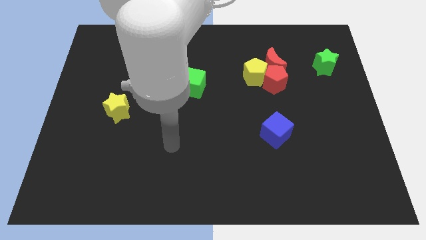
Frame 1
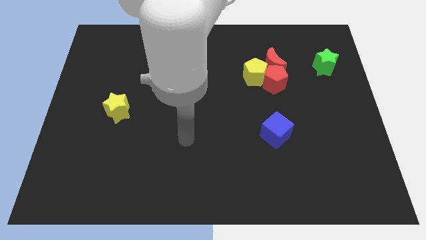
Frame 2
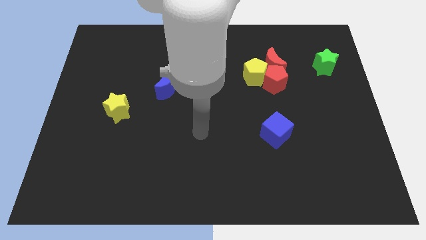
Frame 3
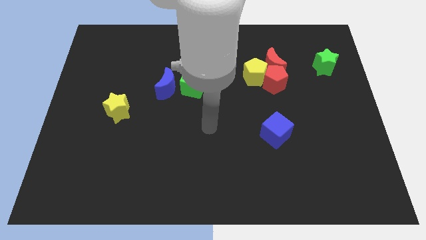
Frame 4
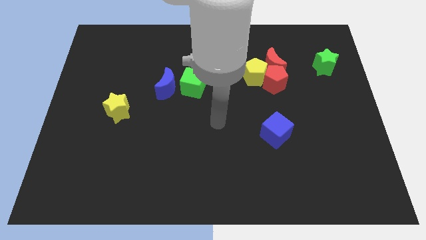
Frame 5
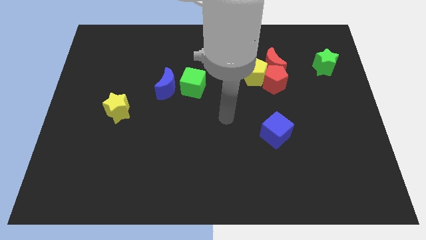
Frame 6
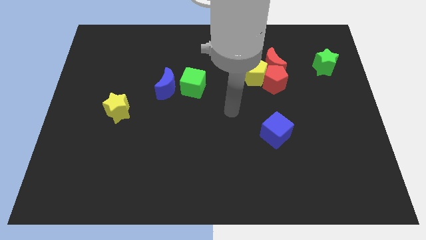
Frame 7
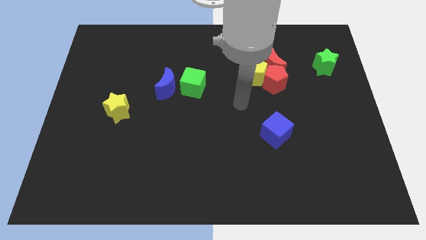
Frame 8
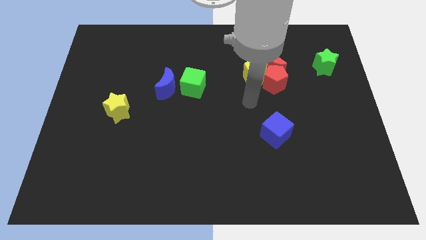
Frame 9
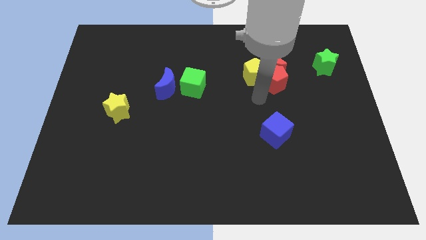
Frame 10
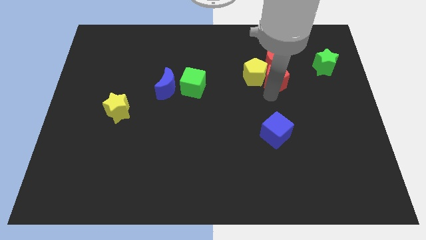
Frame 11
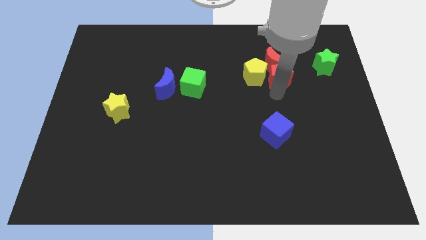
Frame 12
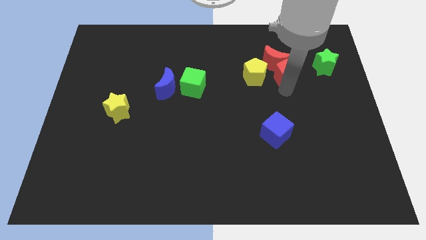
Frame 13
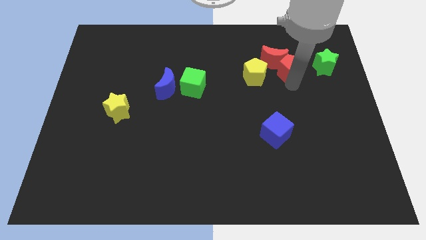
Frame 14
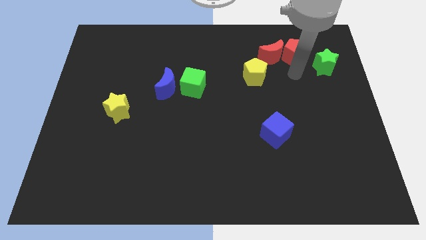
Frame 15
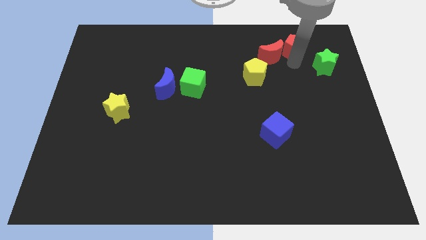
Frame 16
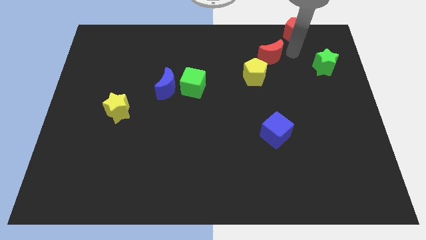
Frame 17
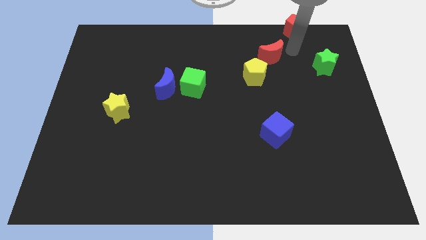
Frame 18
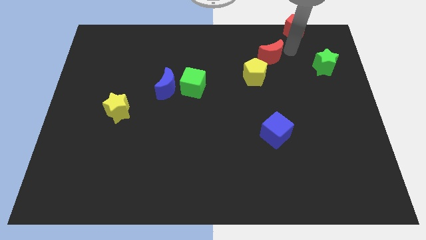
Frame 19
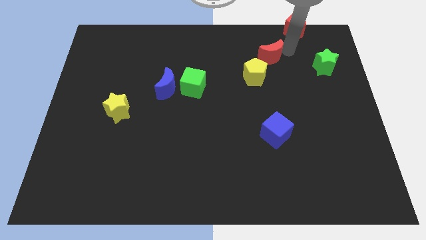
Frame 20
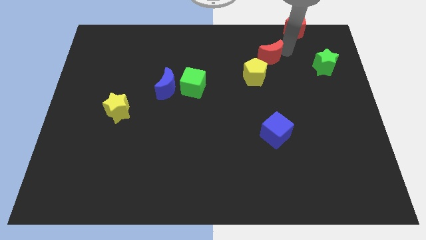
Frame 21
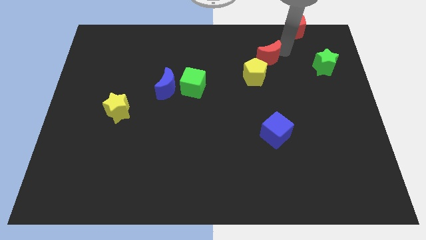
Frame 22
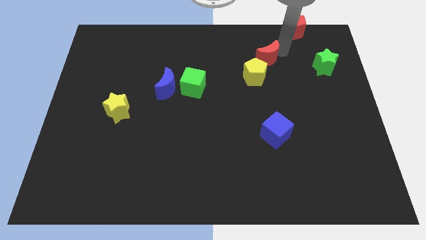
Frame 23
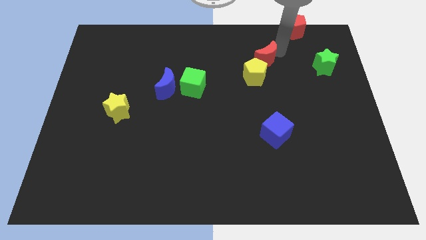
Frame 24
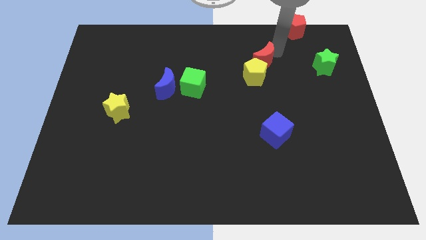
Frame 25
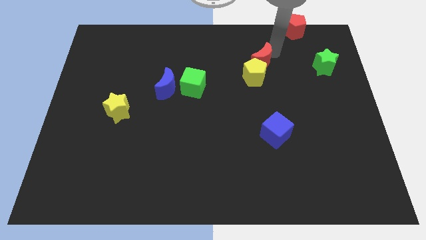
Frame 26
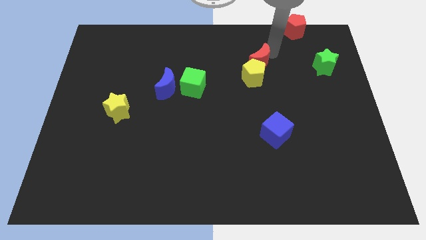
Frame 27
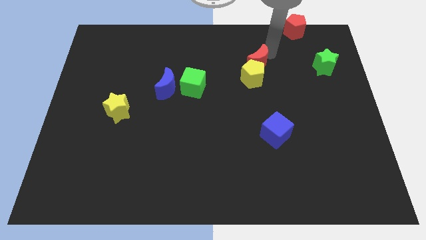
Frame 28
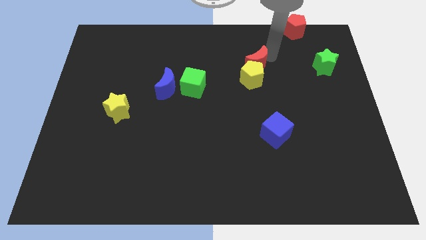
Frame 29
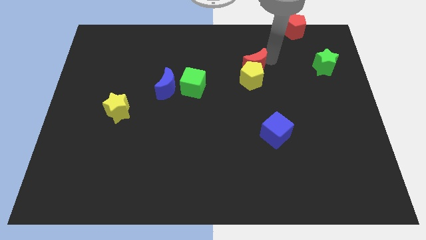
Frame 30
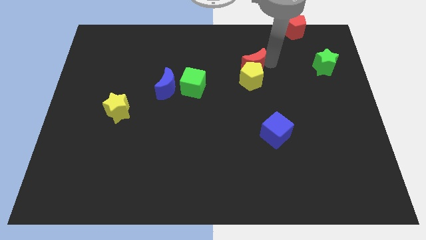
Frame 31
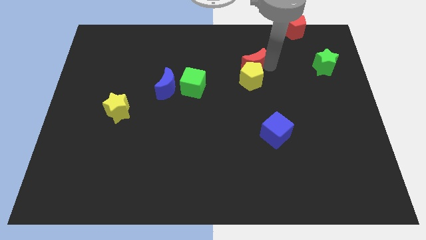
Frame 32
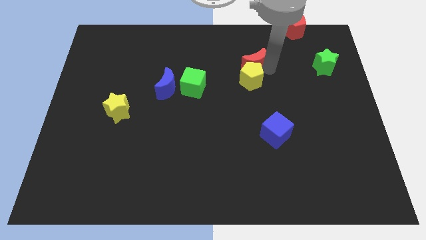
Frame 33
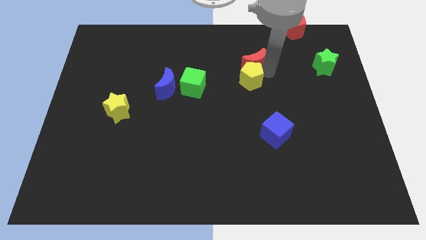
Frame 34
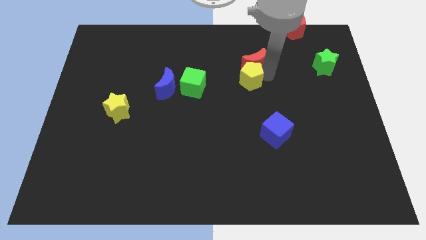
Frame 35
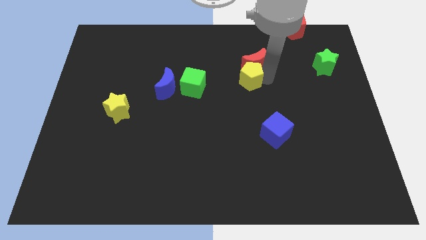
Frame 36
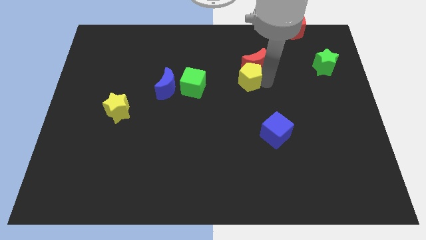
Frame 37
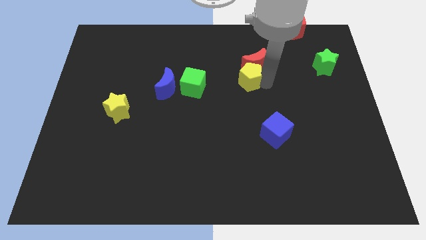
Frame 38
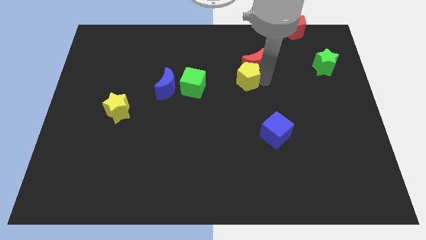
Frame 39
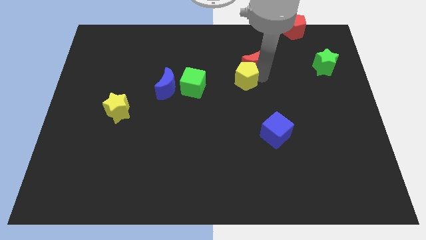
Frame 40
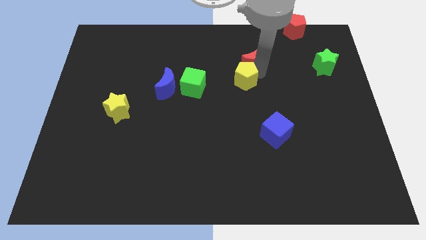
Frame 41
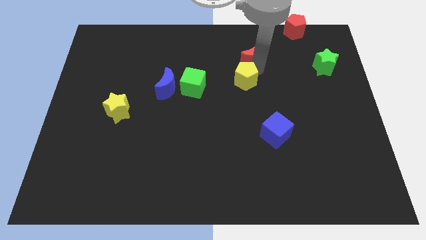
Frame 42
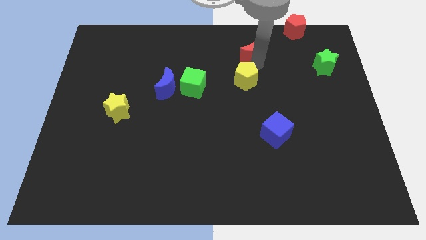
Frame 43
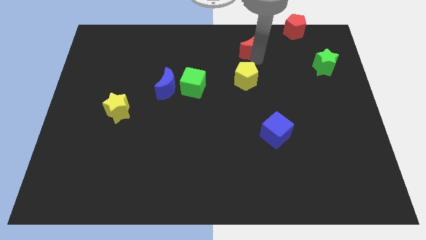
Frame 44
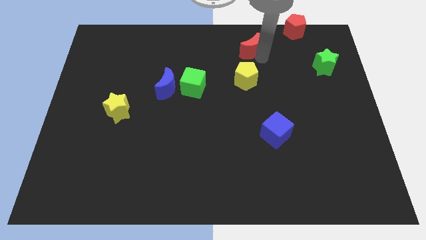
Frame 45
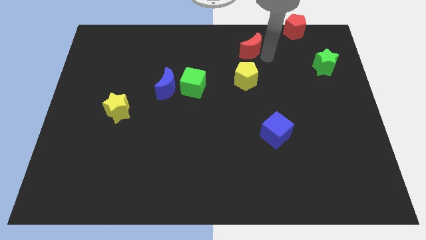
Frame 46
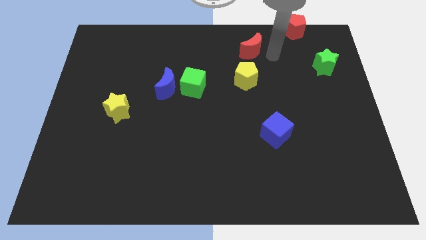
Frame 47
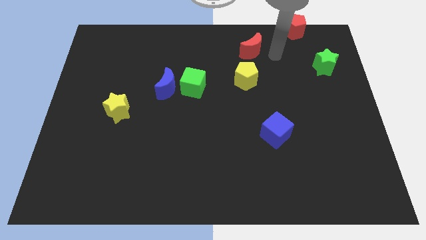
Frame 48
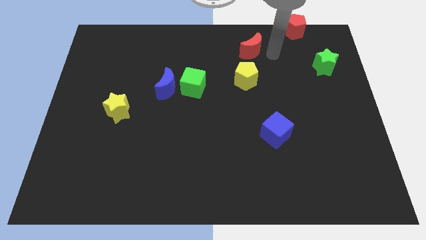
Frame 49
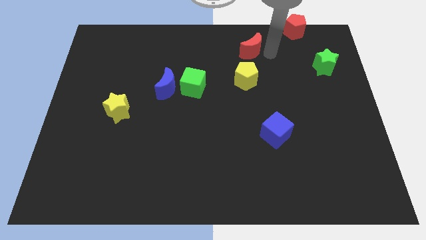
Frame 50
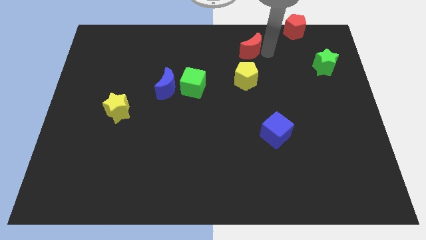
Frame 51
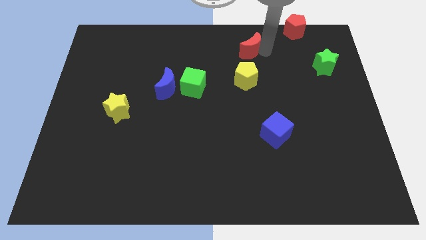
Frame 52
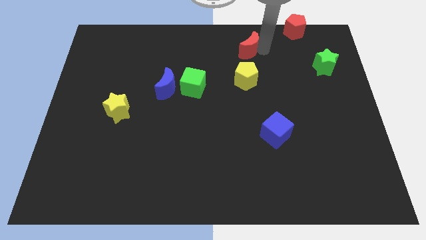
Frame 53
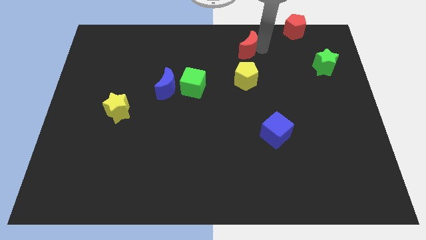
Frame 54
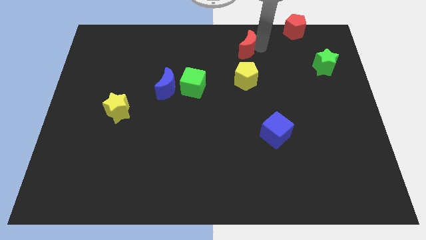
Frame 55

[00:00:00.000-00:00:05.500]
slide the red moon to the towards your base
